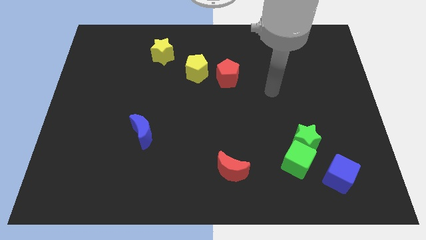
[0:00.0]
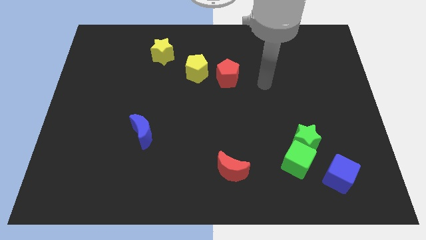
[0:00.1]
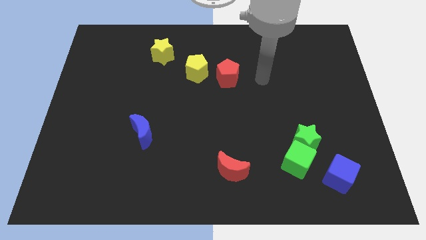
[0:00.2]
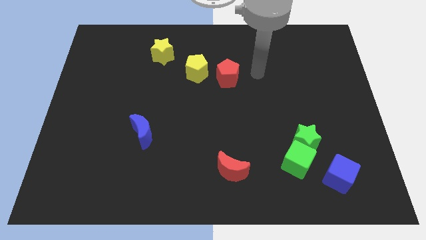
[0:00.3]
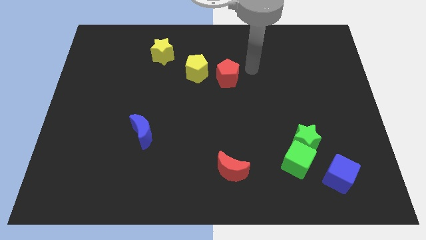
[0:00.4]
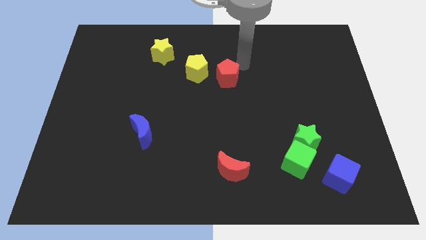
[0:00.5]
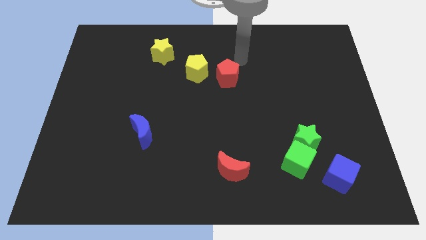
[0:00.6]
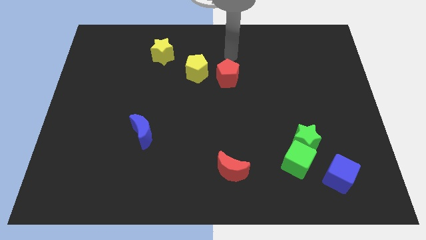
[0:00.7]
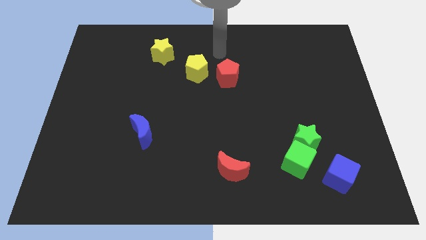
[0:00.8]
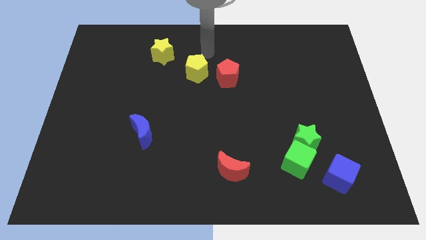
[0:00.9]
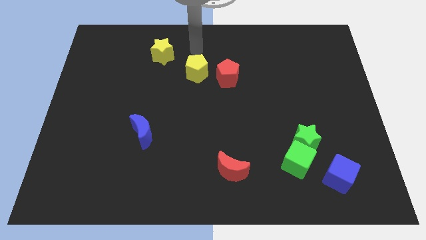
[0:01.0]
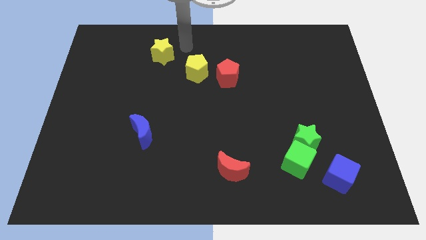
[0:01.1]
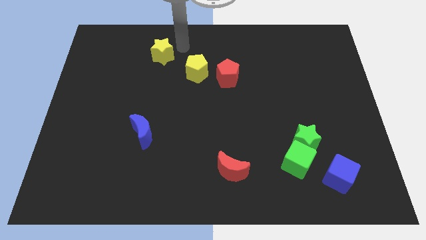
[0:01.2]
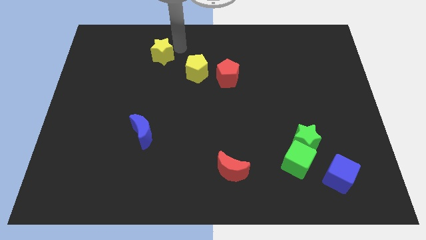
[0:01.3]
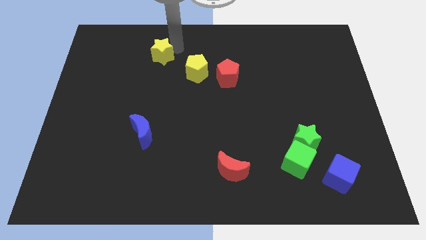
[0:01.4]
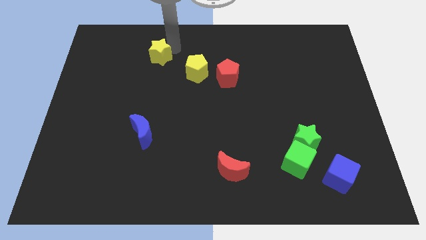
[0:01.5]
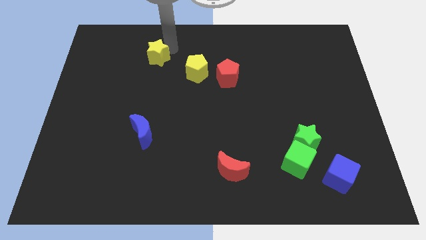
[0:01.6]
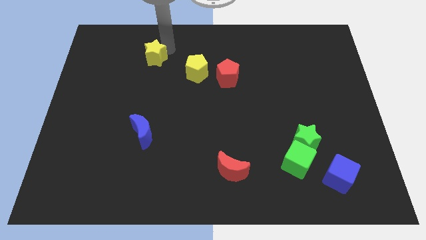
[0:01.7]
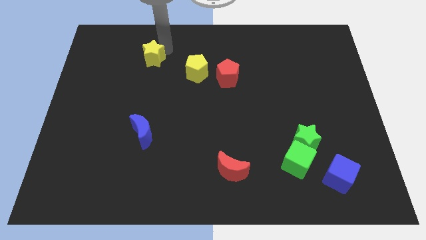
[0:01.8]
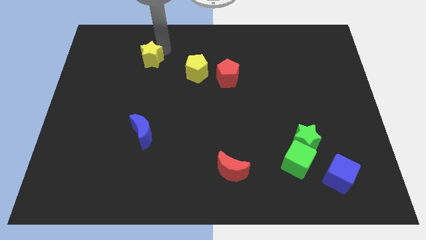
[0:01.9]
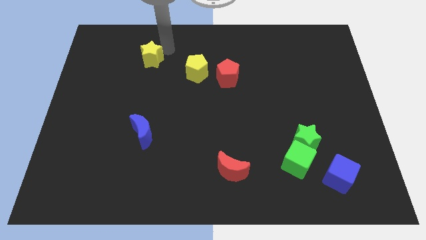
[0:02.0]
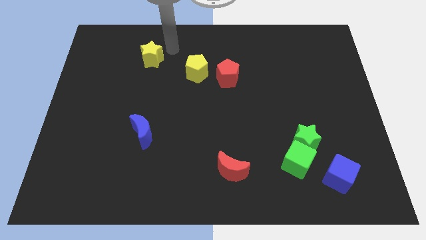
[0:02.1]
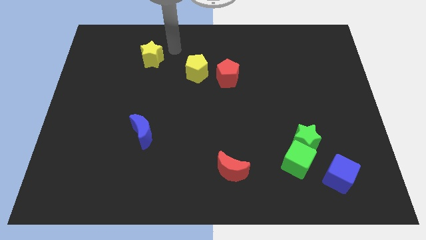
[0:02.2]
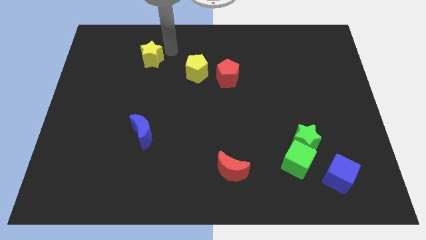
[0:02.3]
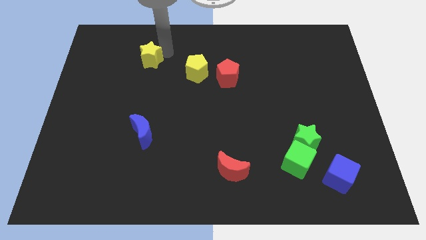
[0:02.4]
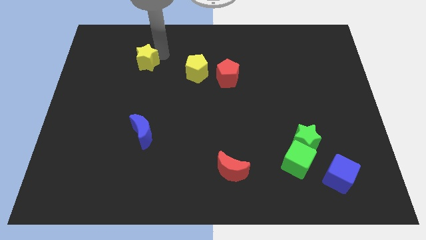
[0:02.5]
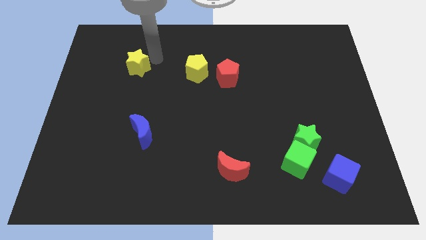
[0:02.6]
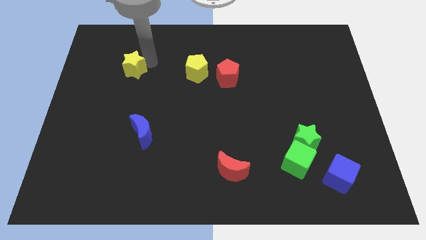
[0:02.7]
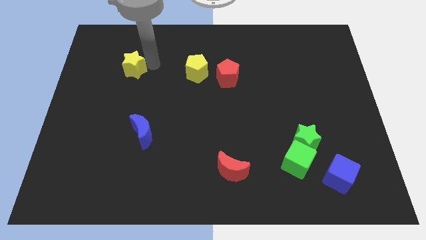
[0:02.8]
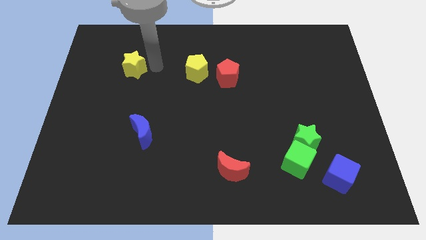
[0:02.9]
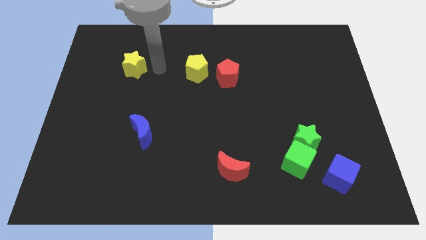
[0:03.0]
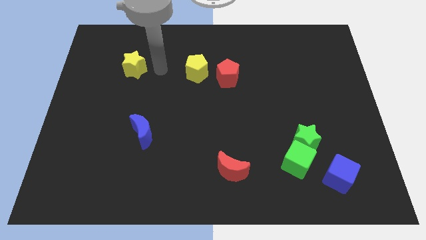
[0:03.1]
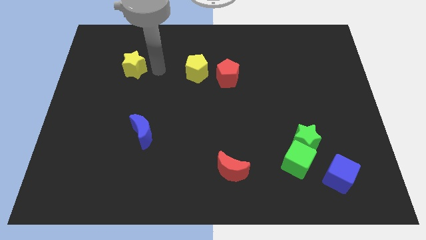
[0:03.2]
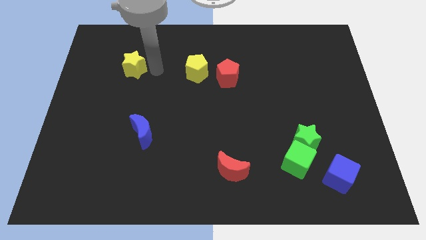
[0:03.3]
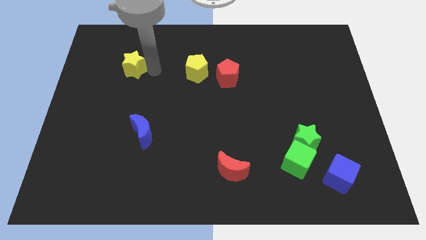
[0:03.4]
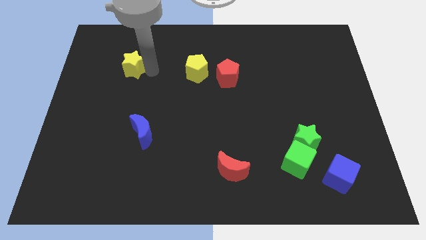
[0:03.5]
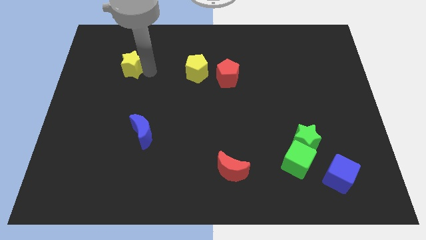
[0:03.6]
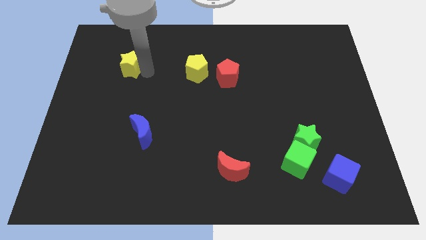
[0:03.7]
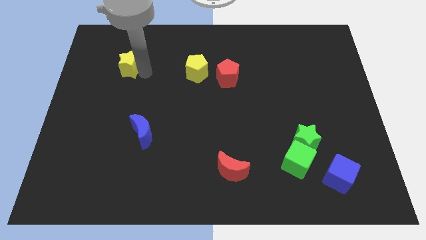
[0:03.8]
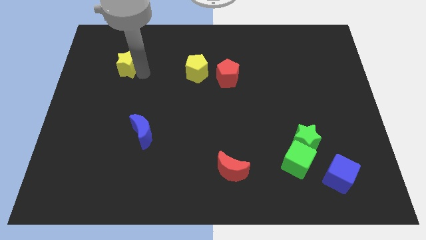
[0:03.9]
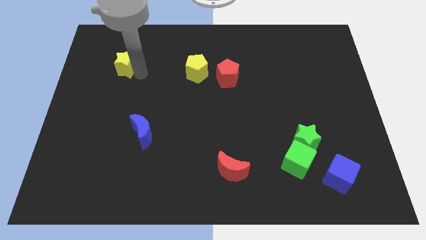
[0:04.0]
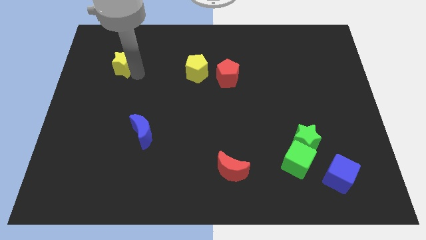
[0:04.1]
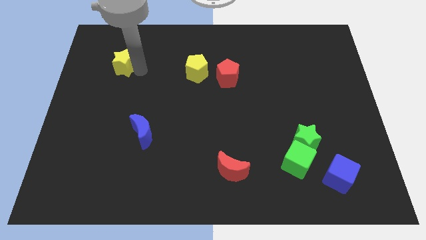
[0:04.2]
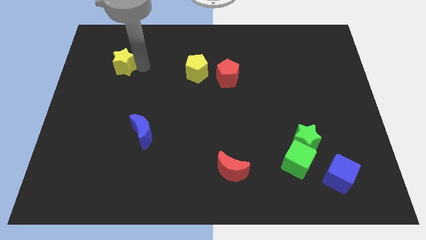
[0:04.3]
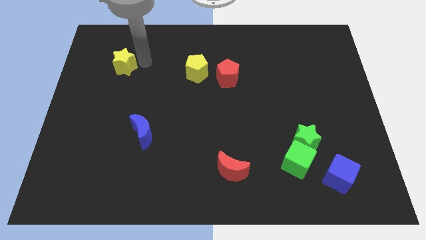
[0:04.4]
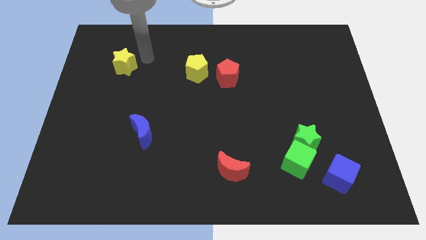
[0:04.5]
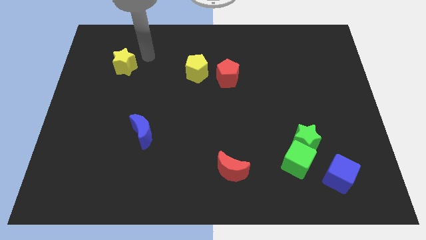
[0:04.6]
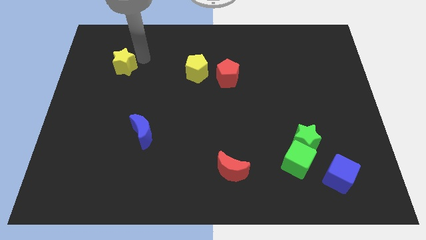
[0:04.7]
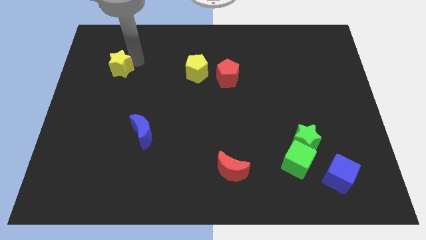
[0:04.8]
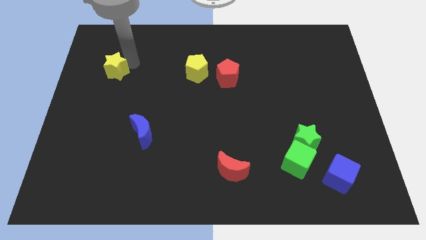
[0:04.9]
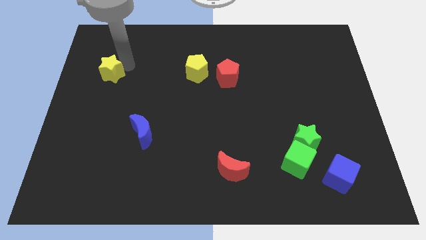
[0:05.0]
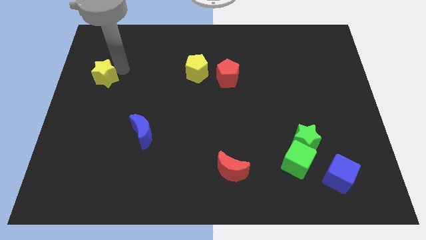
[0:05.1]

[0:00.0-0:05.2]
slide the yellow star to the left side

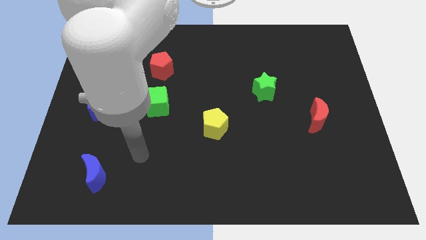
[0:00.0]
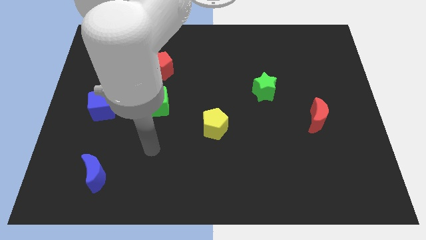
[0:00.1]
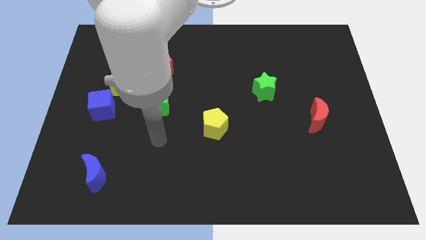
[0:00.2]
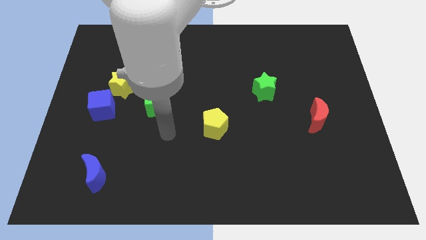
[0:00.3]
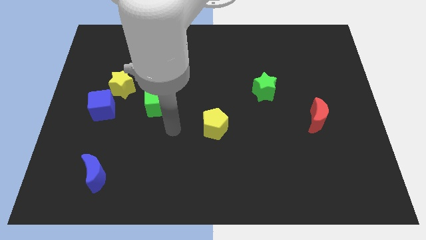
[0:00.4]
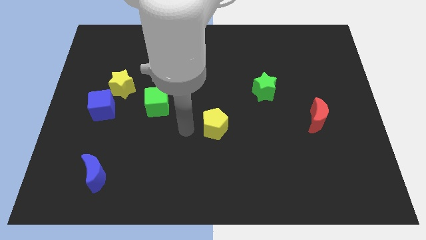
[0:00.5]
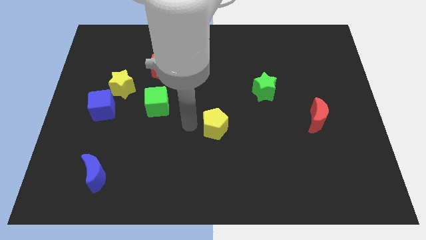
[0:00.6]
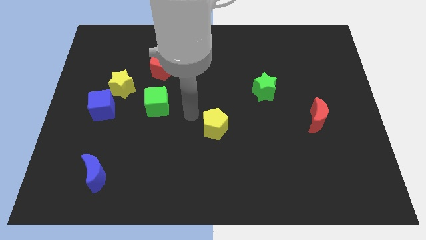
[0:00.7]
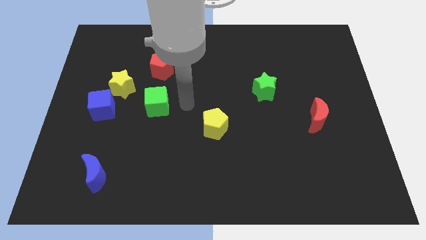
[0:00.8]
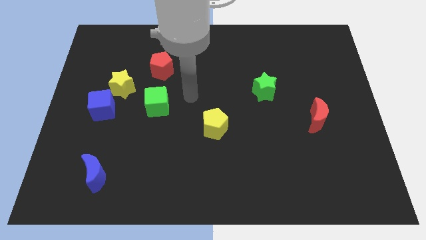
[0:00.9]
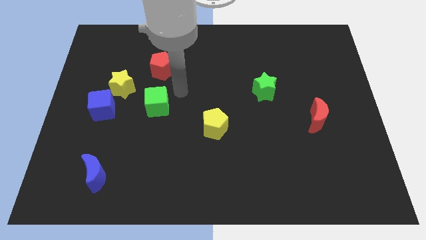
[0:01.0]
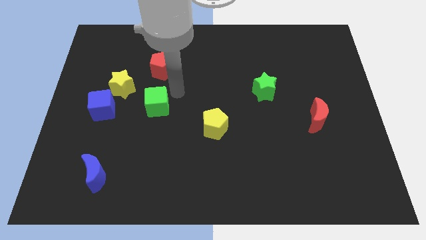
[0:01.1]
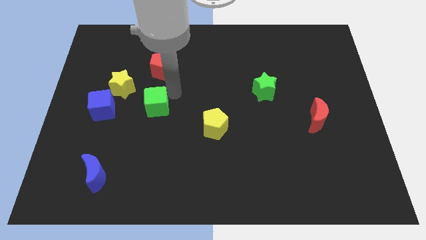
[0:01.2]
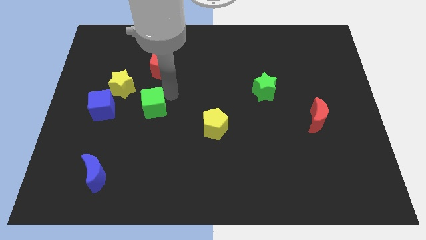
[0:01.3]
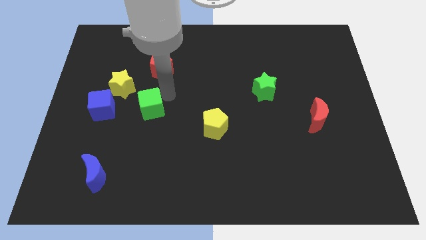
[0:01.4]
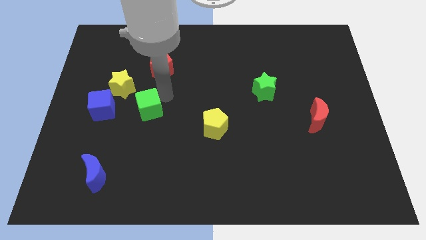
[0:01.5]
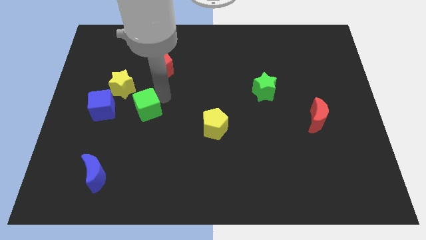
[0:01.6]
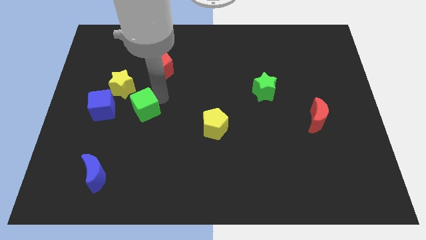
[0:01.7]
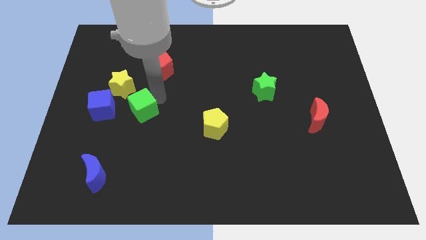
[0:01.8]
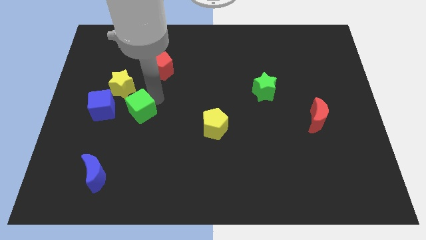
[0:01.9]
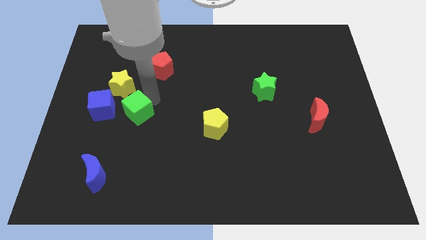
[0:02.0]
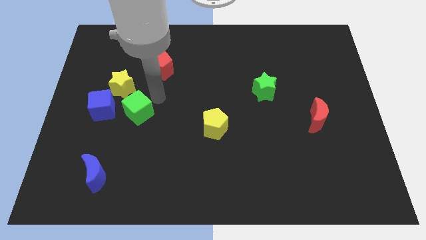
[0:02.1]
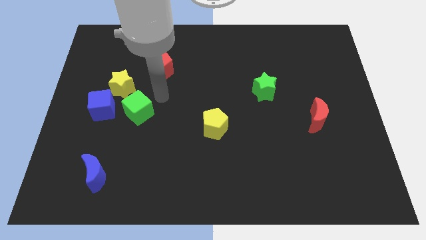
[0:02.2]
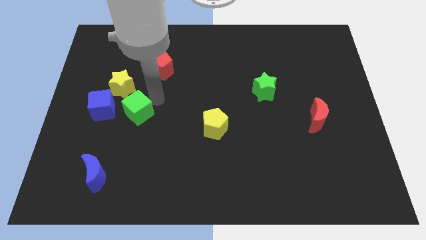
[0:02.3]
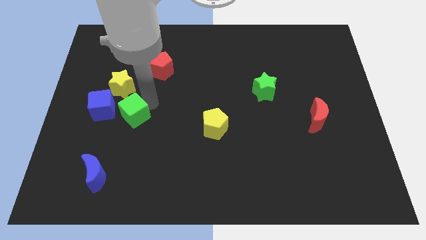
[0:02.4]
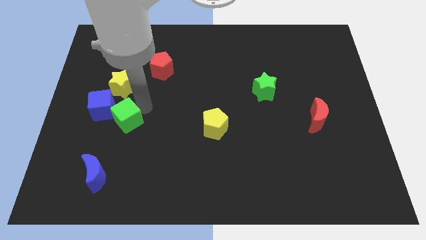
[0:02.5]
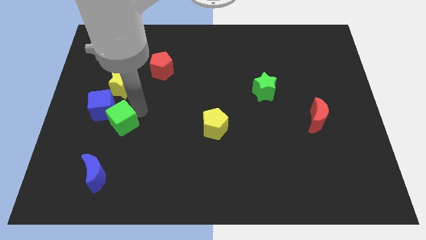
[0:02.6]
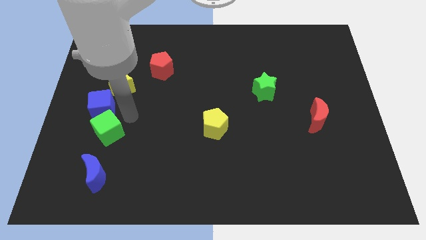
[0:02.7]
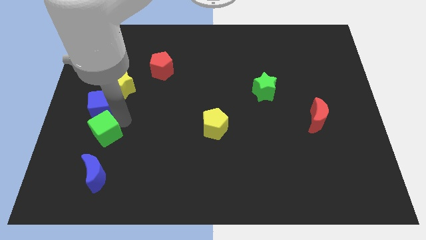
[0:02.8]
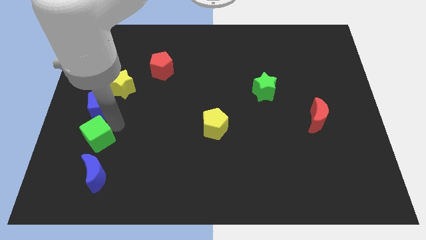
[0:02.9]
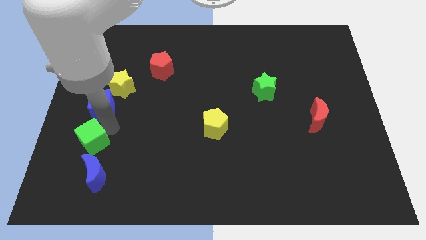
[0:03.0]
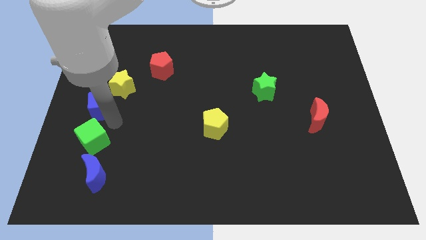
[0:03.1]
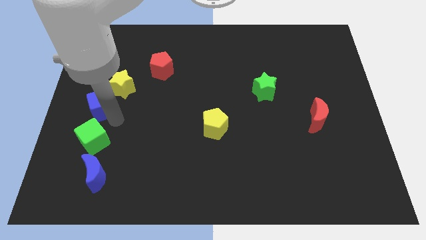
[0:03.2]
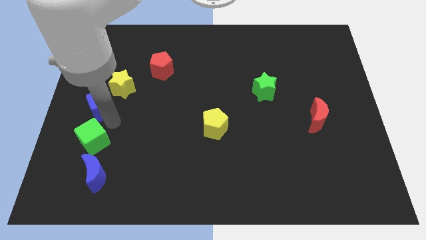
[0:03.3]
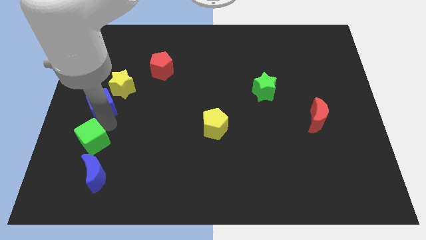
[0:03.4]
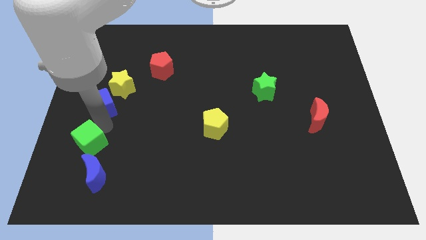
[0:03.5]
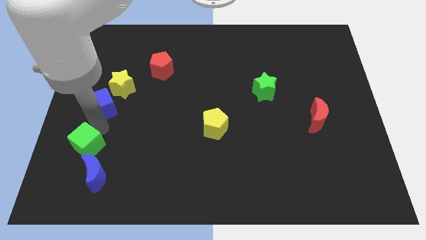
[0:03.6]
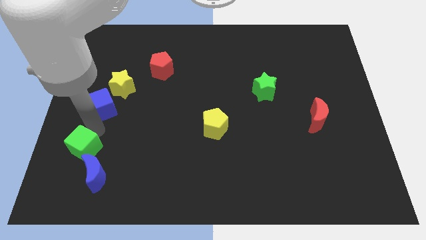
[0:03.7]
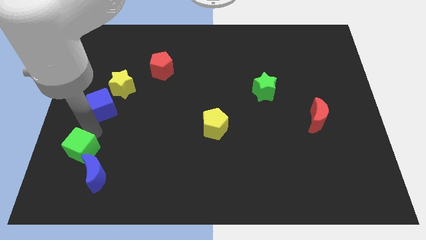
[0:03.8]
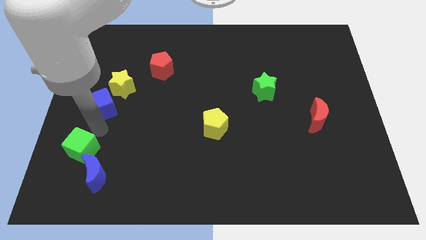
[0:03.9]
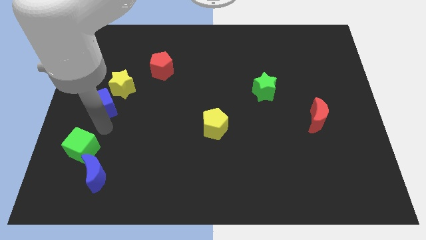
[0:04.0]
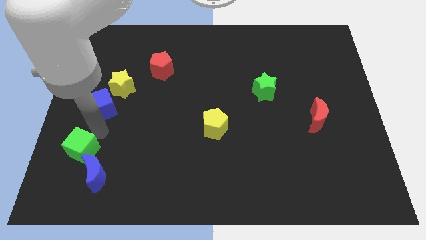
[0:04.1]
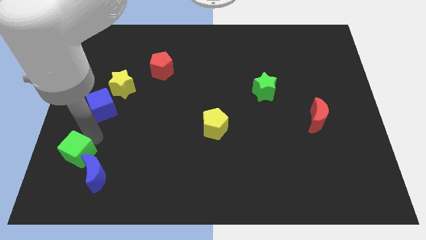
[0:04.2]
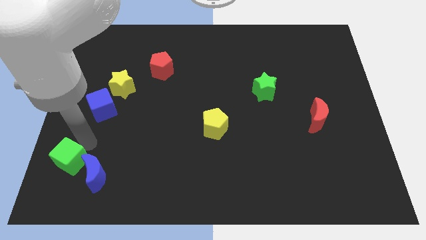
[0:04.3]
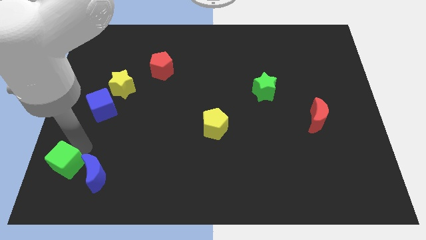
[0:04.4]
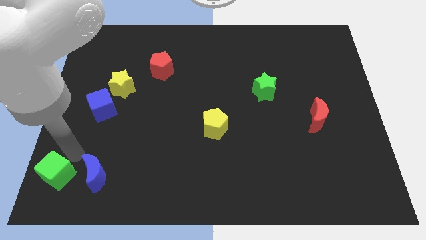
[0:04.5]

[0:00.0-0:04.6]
put the green cube to the lower left corner
